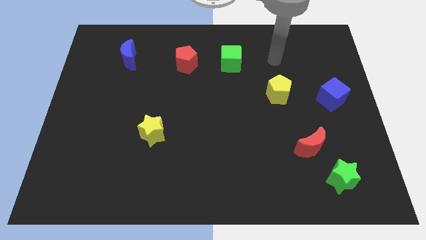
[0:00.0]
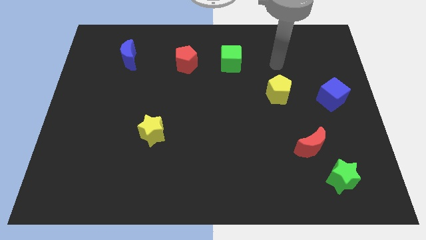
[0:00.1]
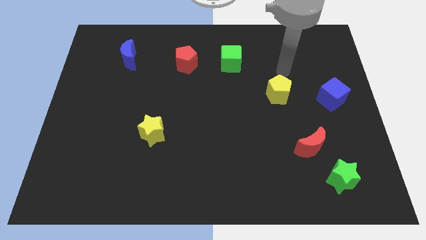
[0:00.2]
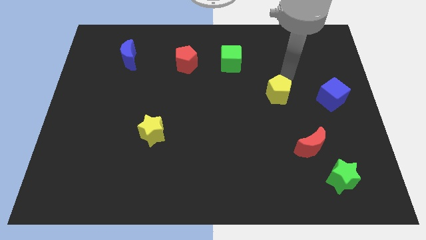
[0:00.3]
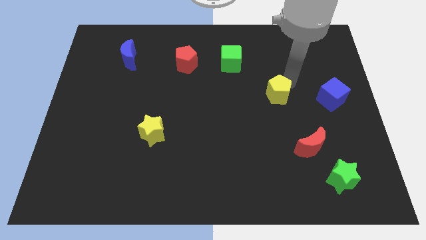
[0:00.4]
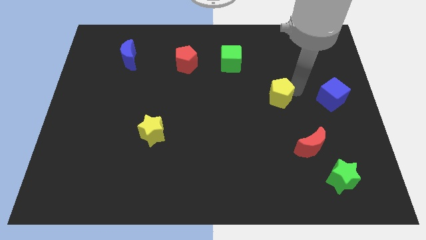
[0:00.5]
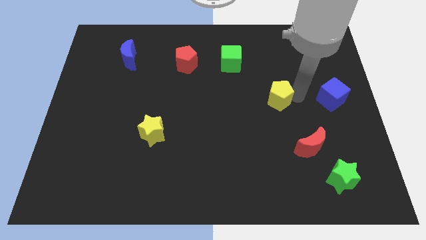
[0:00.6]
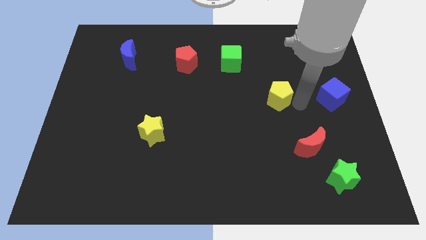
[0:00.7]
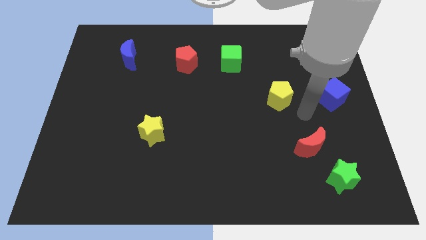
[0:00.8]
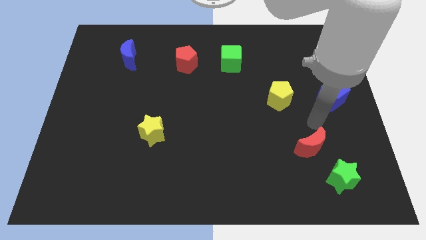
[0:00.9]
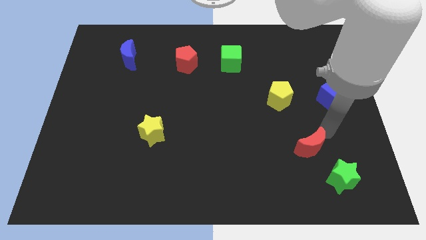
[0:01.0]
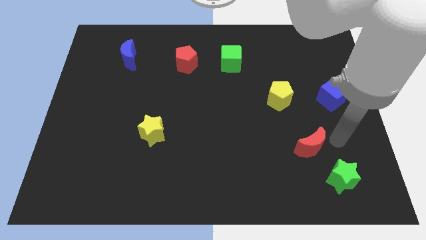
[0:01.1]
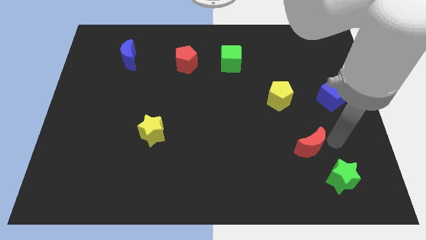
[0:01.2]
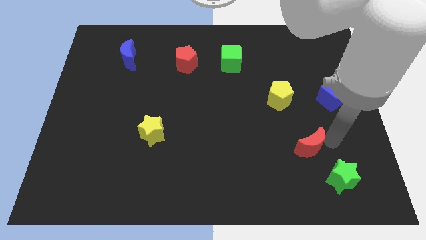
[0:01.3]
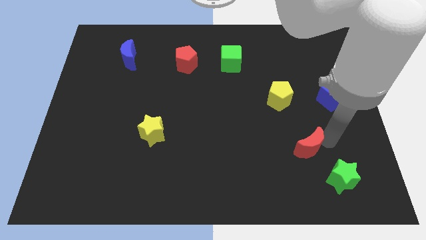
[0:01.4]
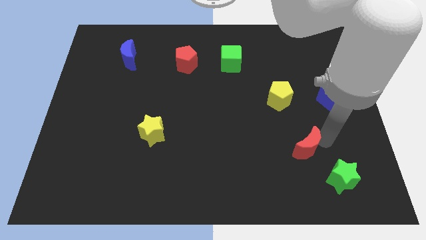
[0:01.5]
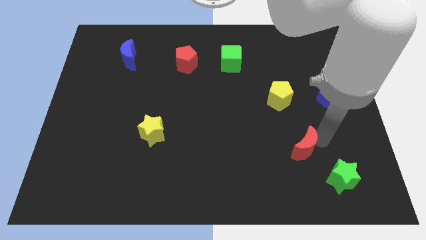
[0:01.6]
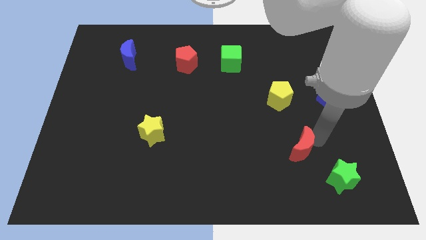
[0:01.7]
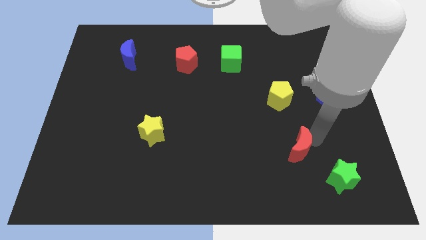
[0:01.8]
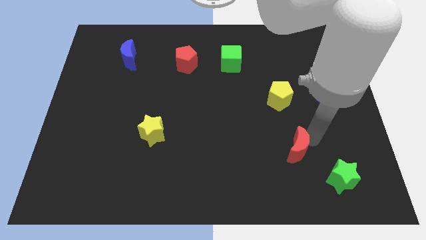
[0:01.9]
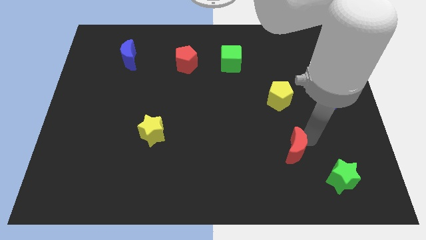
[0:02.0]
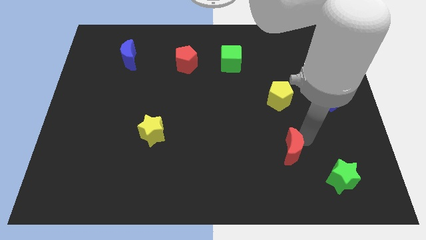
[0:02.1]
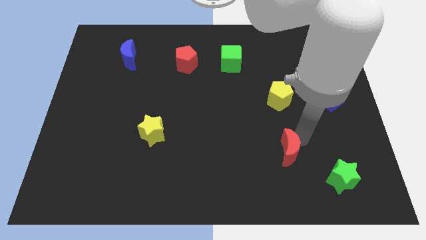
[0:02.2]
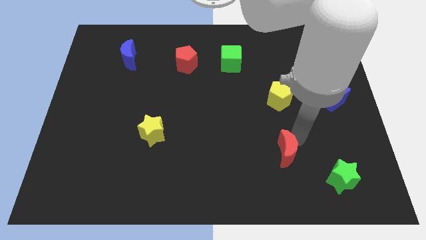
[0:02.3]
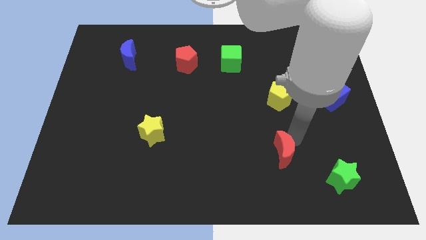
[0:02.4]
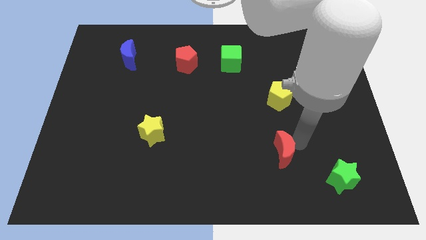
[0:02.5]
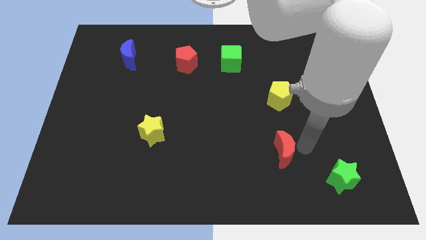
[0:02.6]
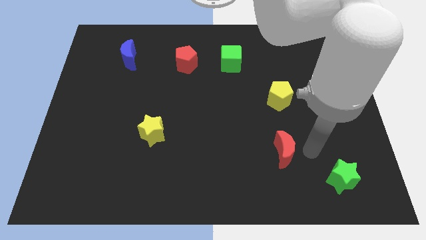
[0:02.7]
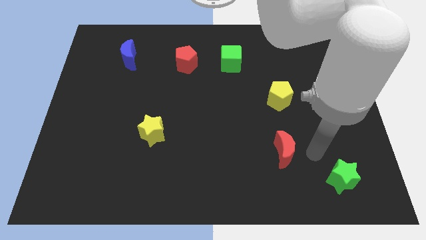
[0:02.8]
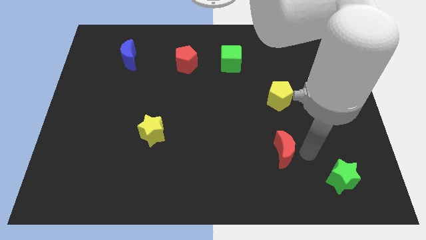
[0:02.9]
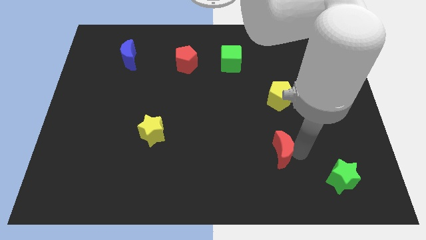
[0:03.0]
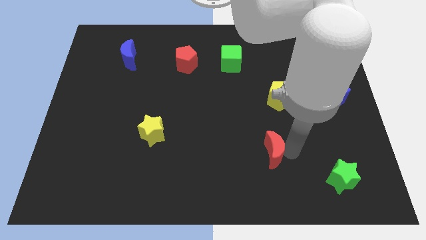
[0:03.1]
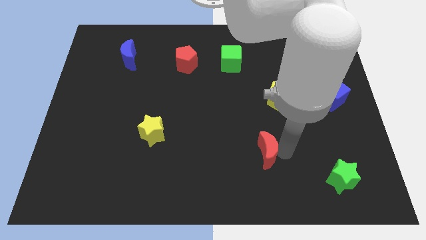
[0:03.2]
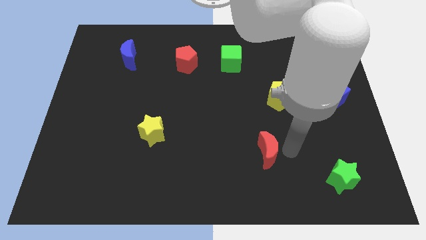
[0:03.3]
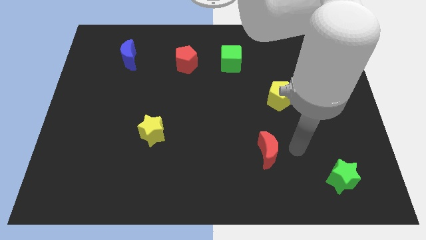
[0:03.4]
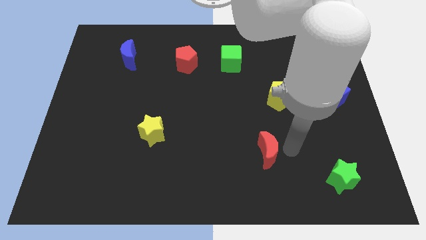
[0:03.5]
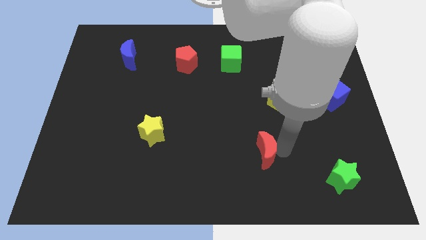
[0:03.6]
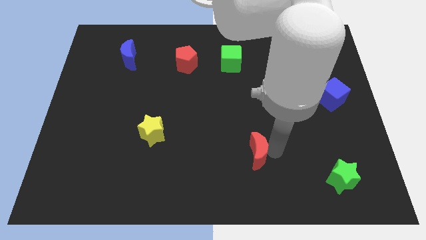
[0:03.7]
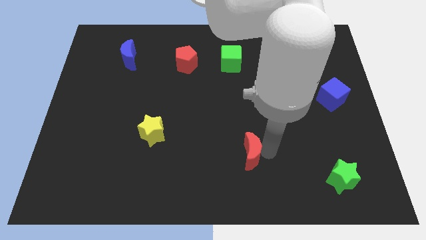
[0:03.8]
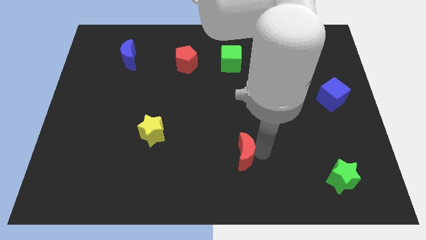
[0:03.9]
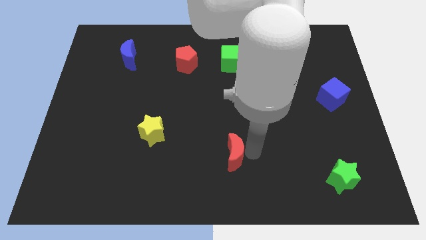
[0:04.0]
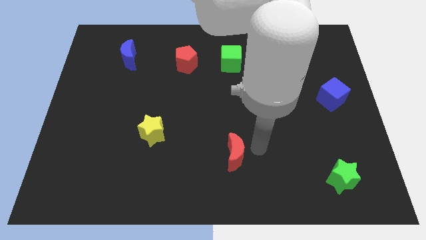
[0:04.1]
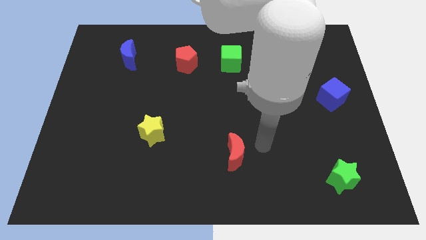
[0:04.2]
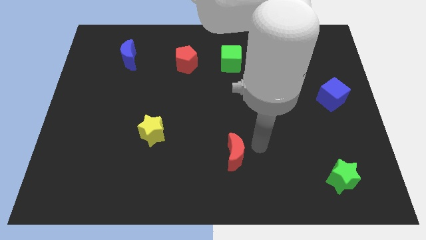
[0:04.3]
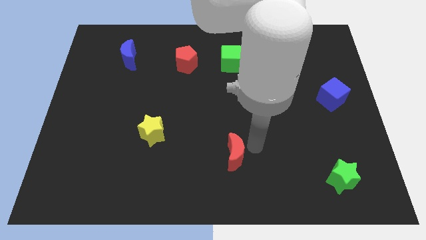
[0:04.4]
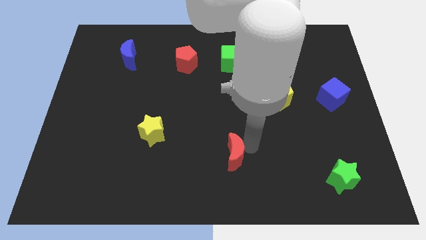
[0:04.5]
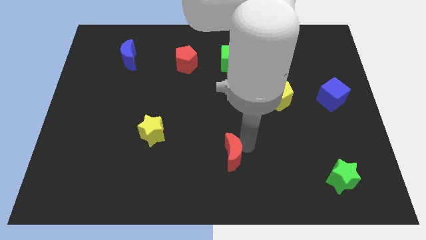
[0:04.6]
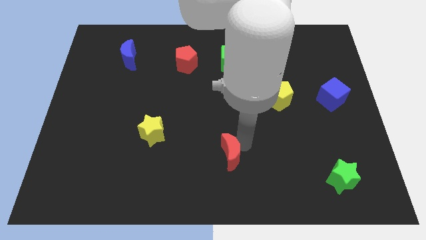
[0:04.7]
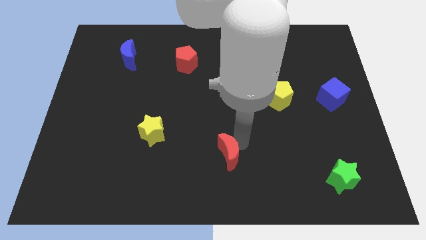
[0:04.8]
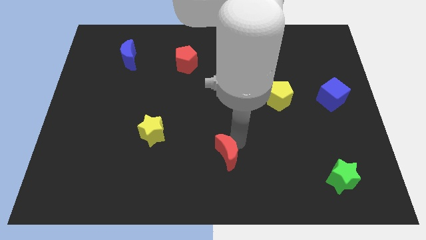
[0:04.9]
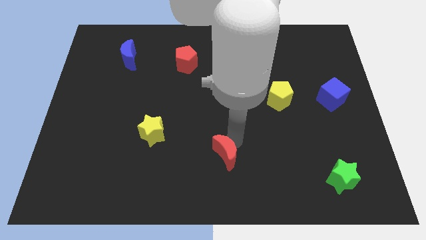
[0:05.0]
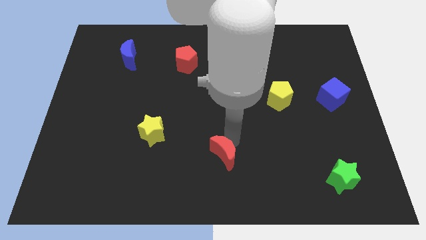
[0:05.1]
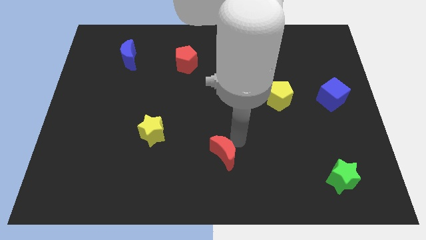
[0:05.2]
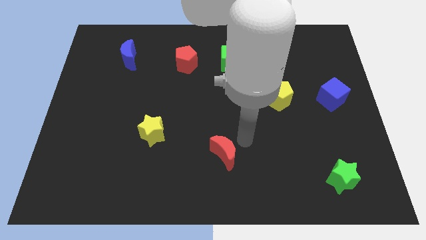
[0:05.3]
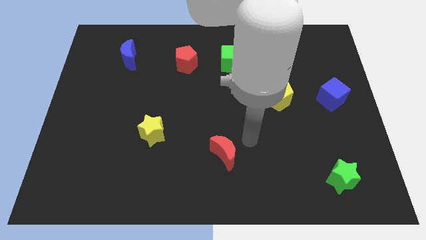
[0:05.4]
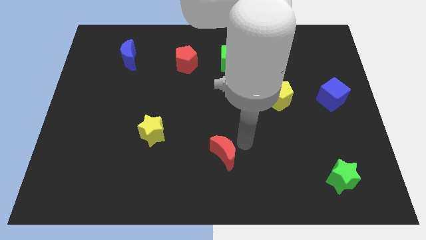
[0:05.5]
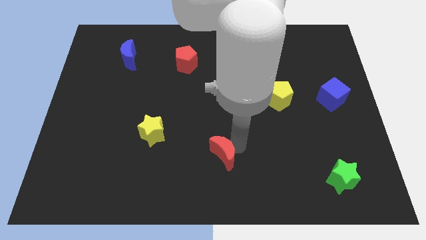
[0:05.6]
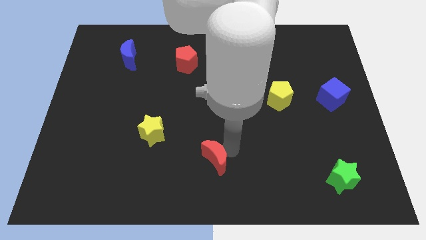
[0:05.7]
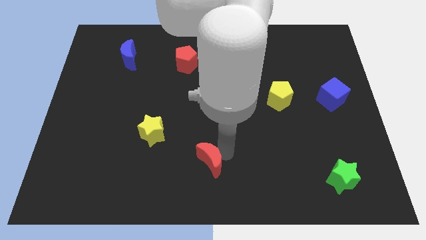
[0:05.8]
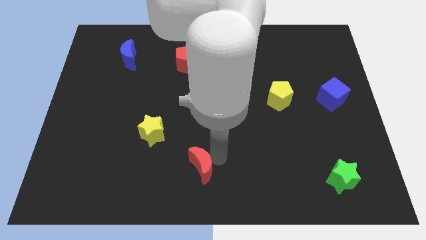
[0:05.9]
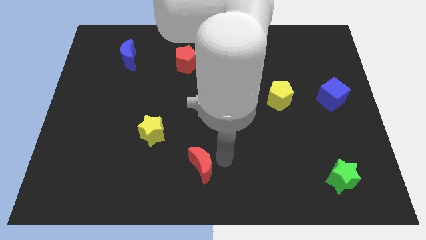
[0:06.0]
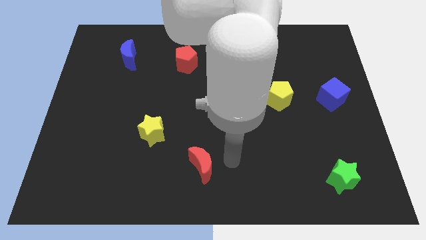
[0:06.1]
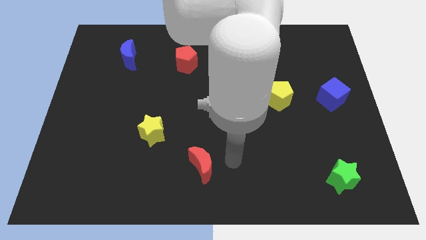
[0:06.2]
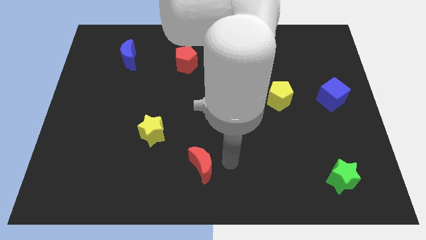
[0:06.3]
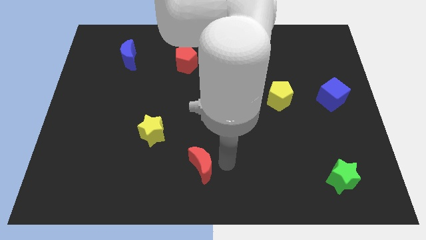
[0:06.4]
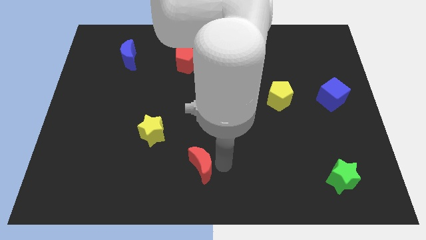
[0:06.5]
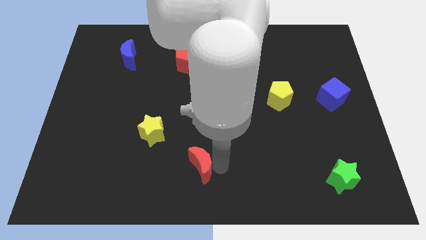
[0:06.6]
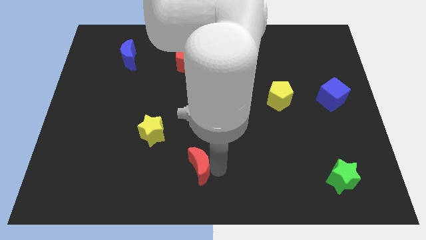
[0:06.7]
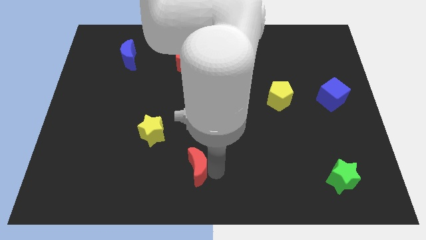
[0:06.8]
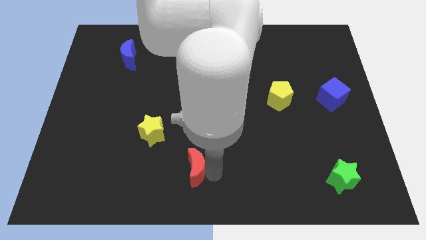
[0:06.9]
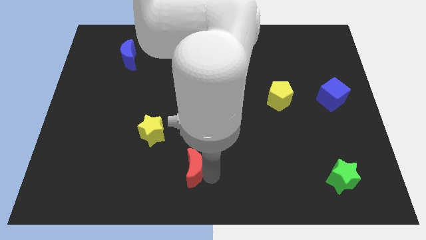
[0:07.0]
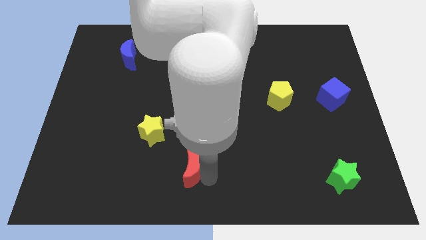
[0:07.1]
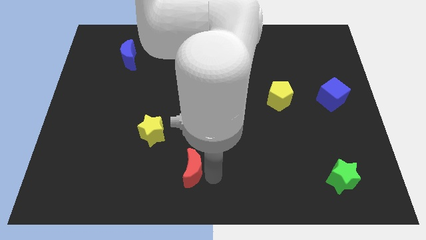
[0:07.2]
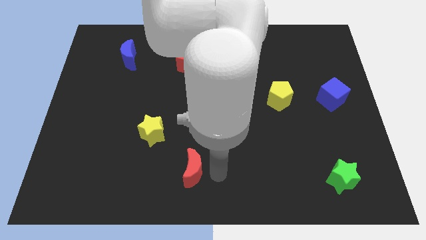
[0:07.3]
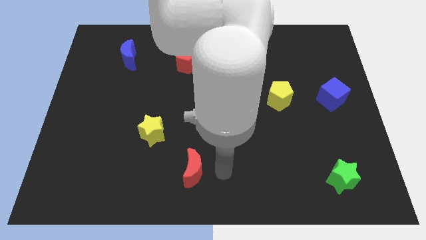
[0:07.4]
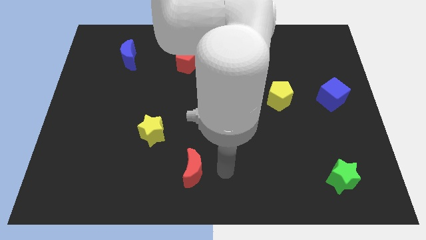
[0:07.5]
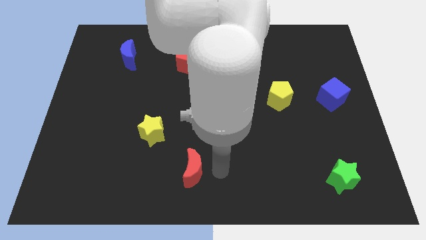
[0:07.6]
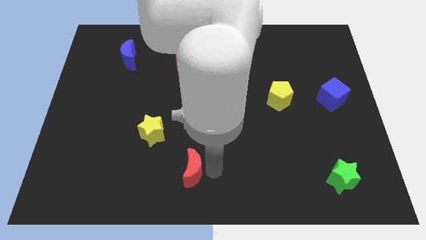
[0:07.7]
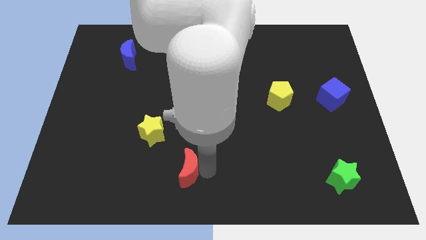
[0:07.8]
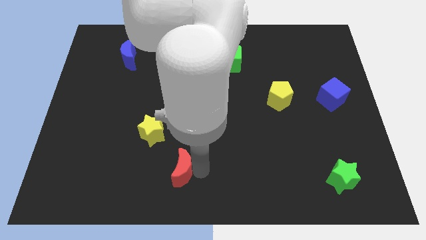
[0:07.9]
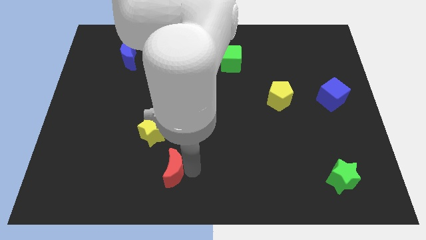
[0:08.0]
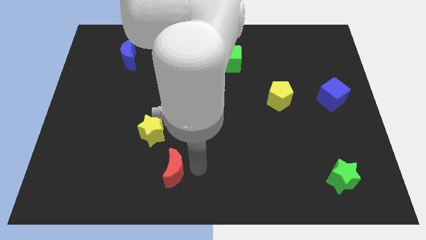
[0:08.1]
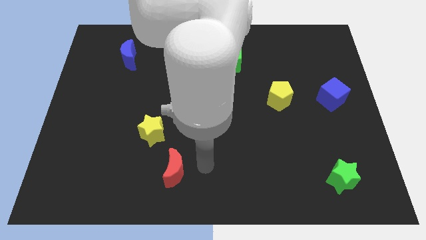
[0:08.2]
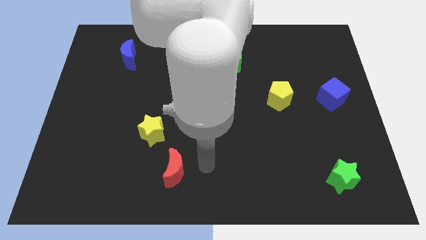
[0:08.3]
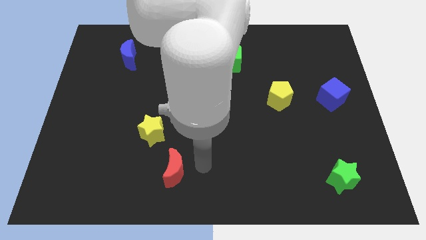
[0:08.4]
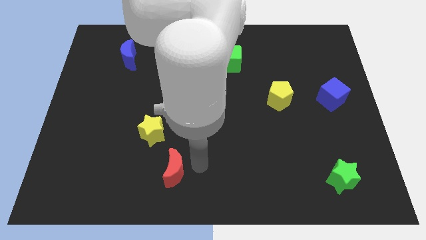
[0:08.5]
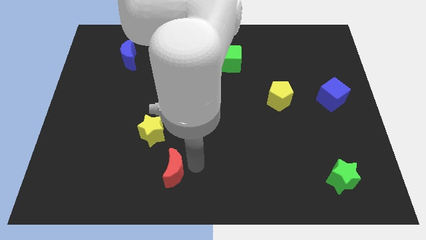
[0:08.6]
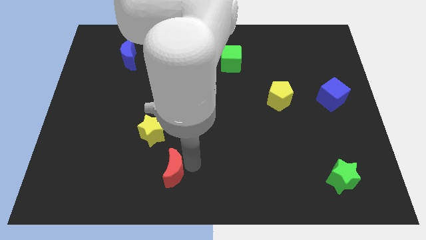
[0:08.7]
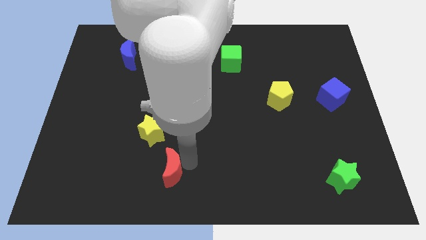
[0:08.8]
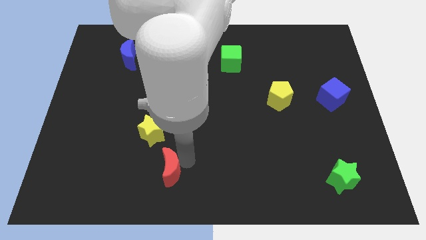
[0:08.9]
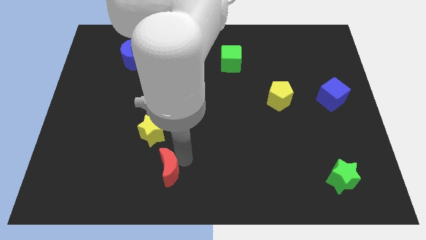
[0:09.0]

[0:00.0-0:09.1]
put the red moon below the yellow star
